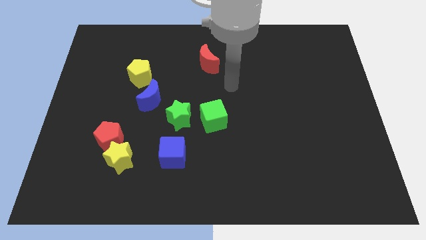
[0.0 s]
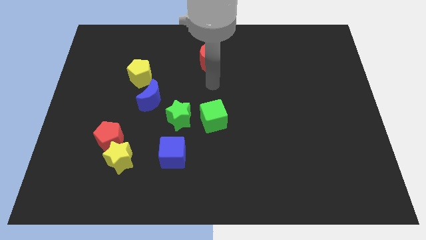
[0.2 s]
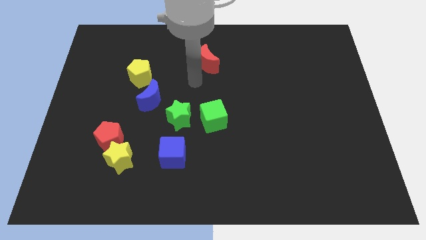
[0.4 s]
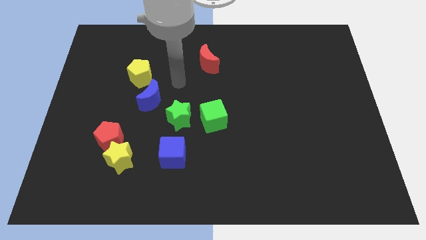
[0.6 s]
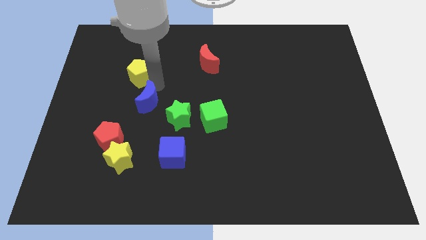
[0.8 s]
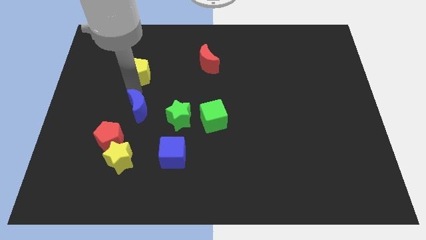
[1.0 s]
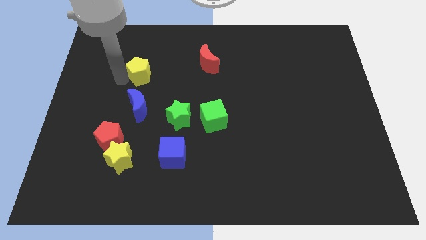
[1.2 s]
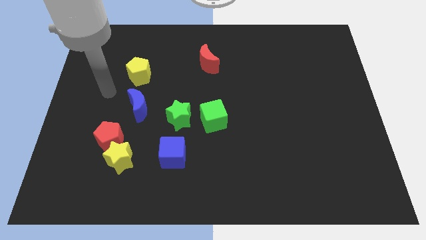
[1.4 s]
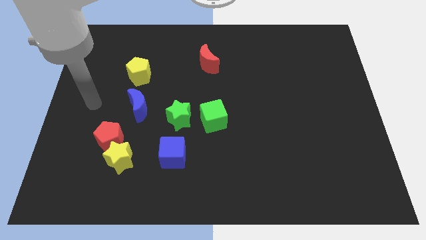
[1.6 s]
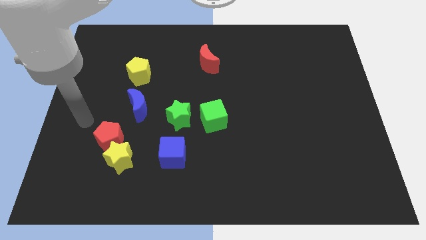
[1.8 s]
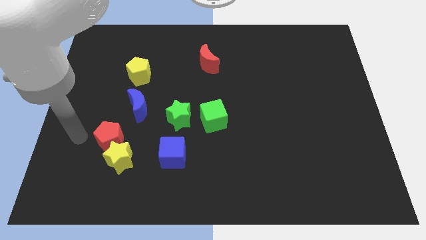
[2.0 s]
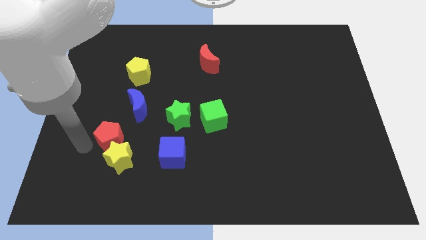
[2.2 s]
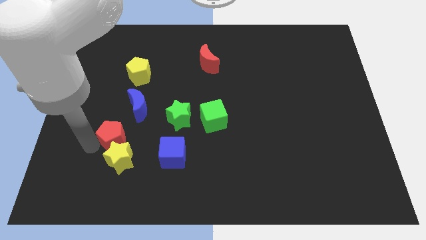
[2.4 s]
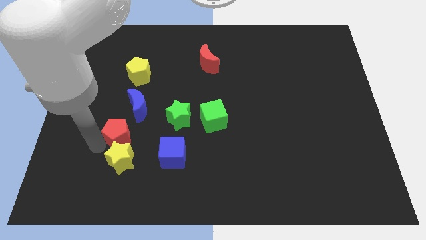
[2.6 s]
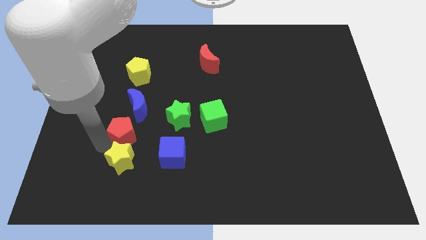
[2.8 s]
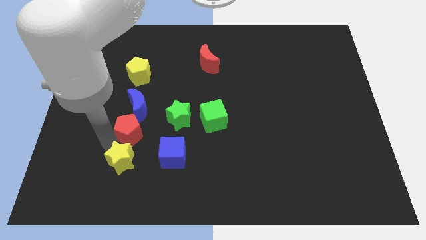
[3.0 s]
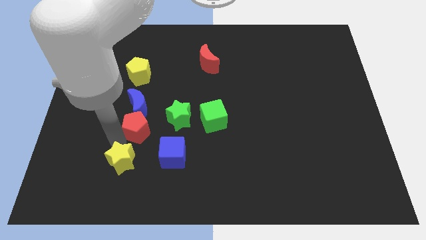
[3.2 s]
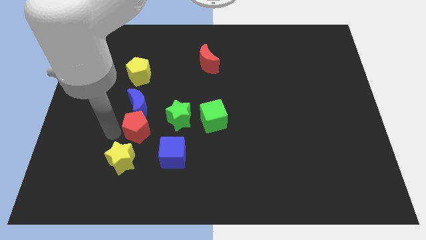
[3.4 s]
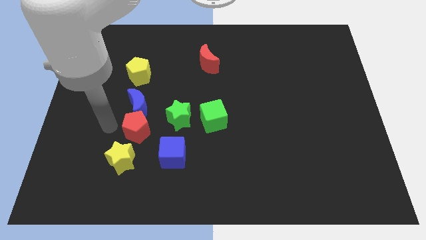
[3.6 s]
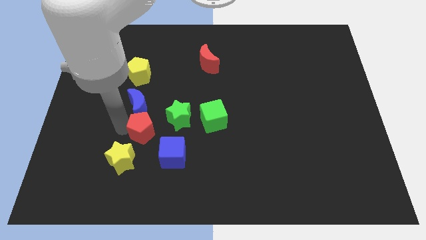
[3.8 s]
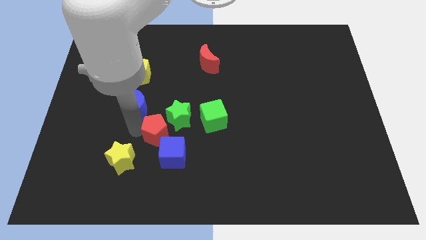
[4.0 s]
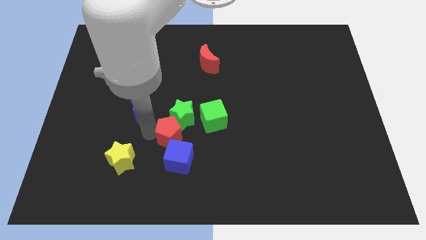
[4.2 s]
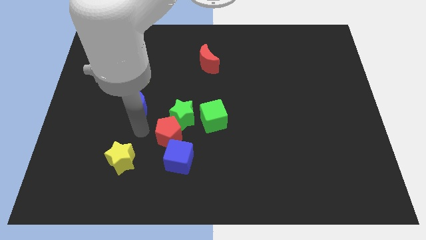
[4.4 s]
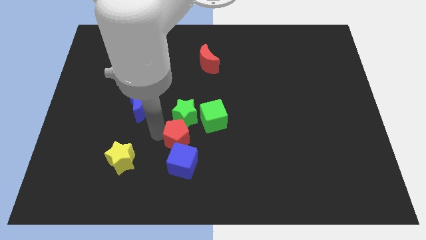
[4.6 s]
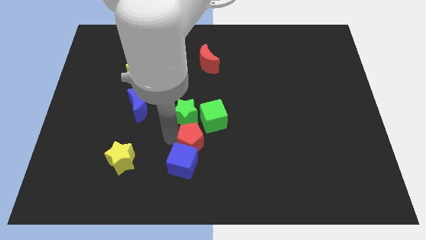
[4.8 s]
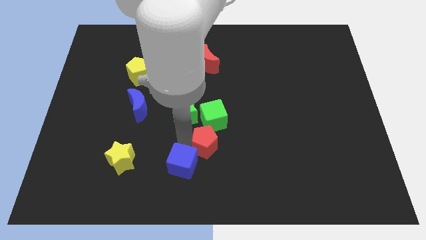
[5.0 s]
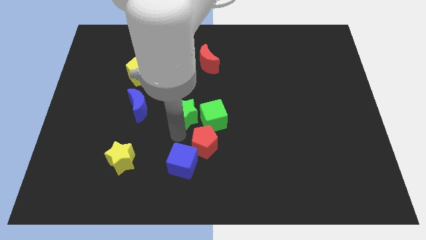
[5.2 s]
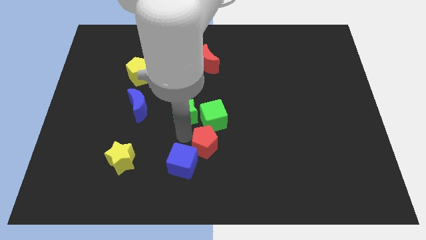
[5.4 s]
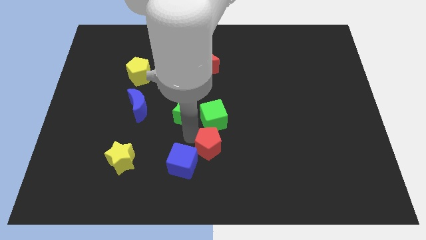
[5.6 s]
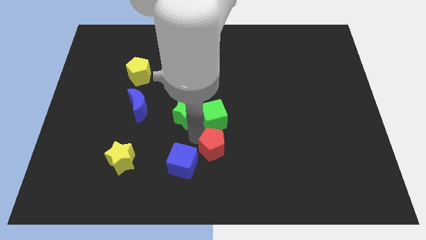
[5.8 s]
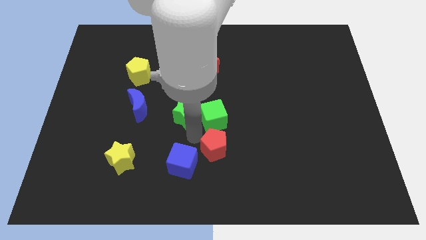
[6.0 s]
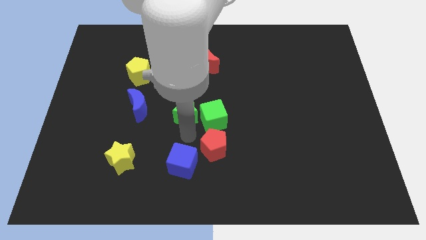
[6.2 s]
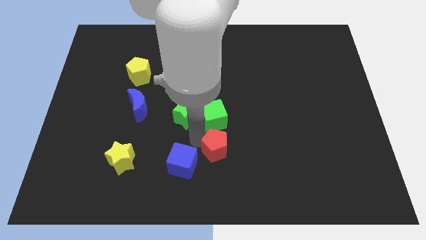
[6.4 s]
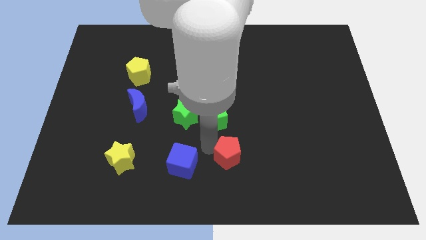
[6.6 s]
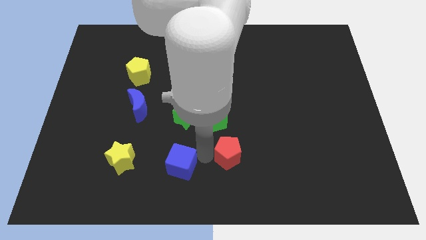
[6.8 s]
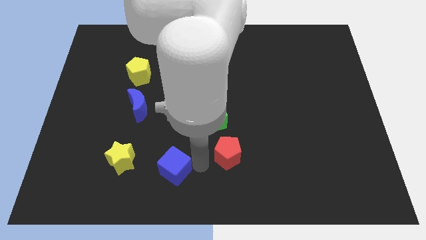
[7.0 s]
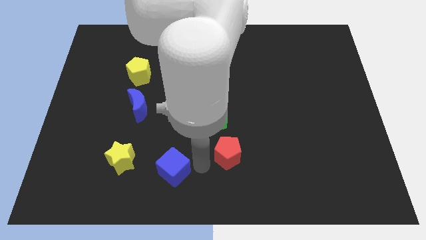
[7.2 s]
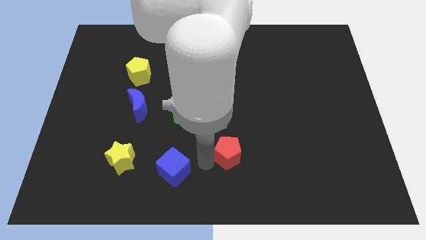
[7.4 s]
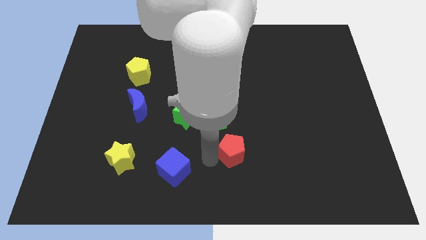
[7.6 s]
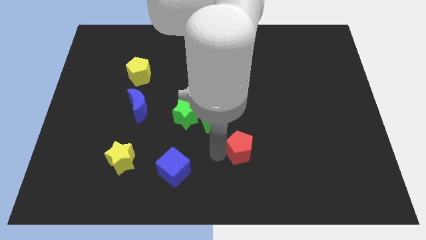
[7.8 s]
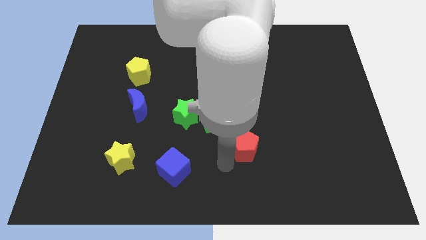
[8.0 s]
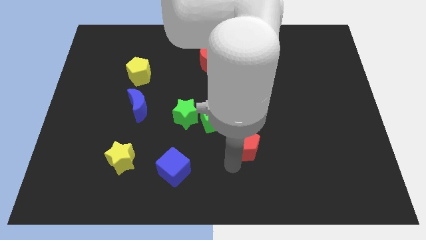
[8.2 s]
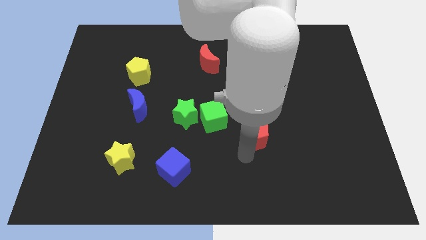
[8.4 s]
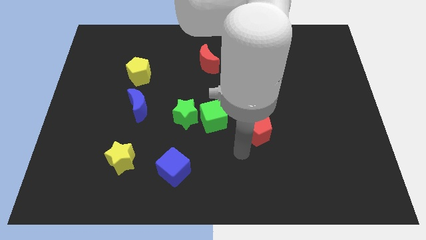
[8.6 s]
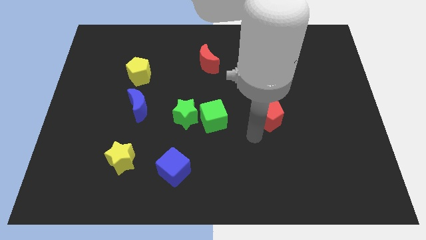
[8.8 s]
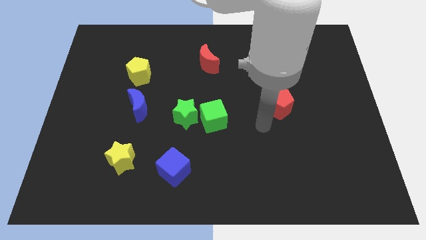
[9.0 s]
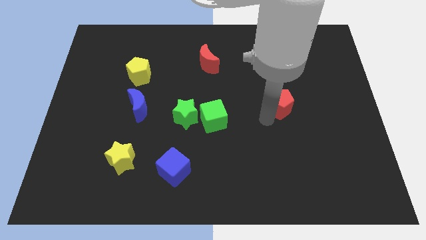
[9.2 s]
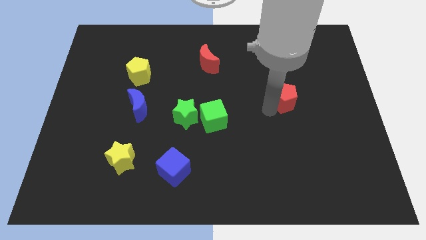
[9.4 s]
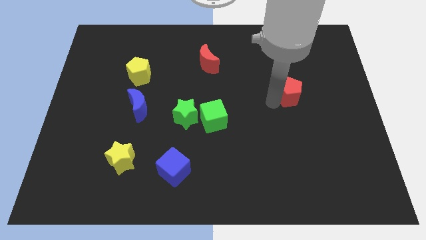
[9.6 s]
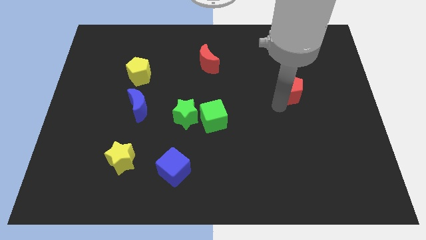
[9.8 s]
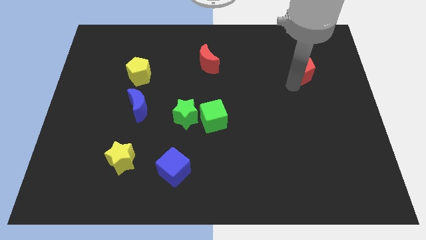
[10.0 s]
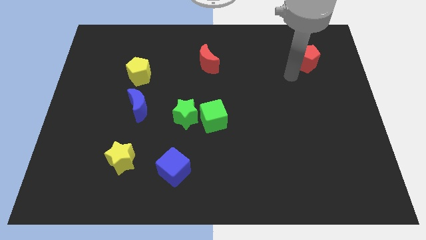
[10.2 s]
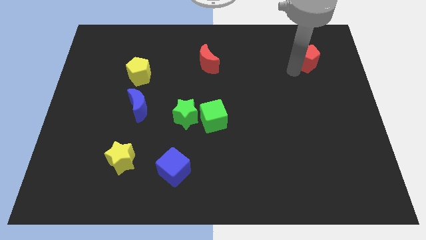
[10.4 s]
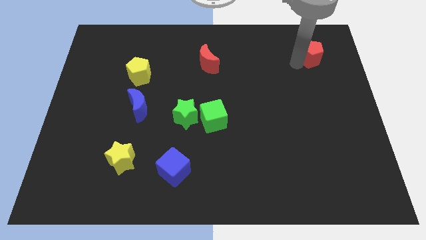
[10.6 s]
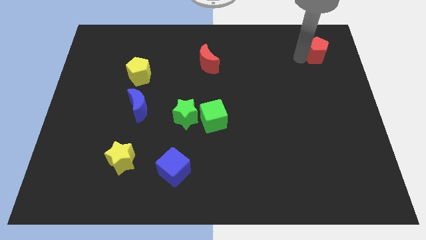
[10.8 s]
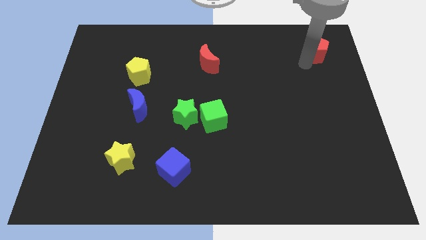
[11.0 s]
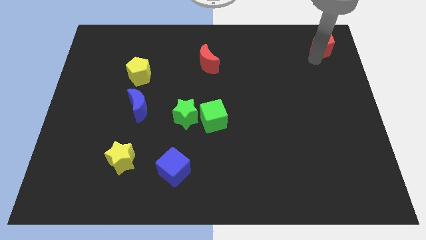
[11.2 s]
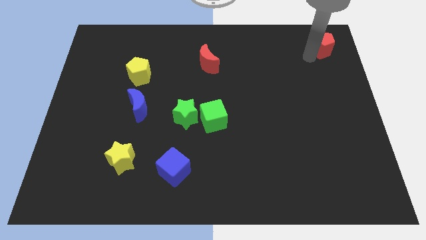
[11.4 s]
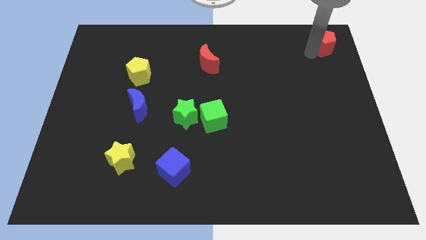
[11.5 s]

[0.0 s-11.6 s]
slide the red pentagon to the top right corner
